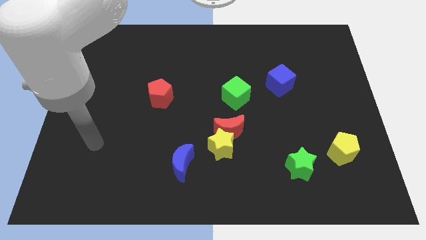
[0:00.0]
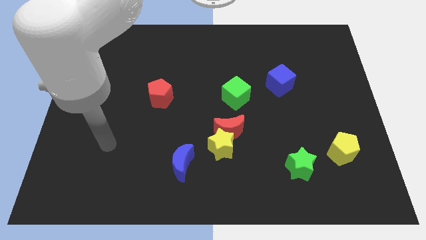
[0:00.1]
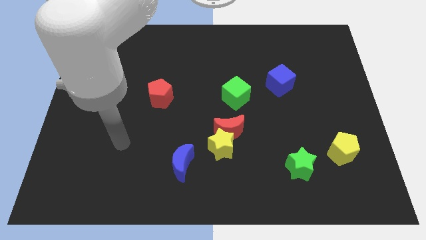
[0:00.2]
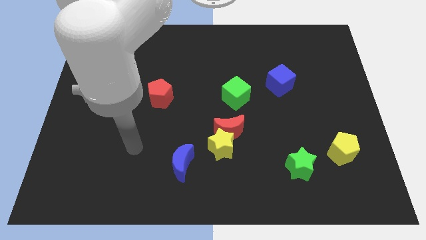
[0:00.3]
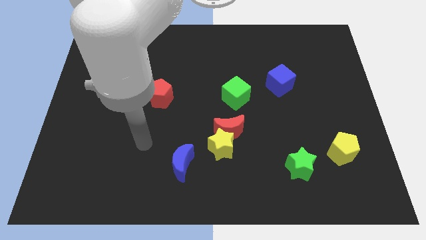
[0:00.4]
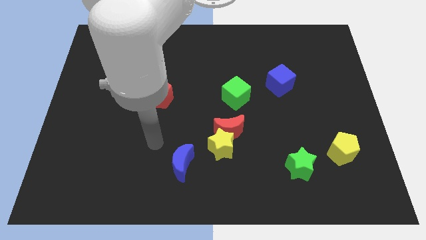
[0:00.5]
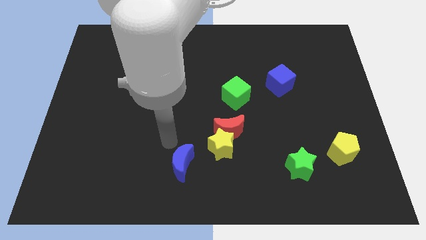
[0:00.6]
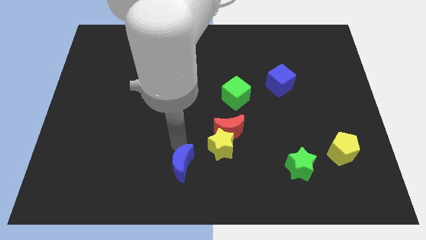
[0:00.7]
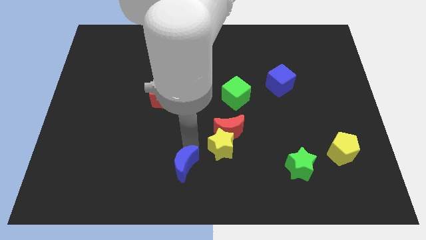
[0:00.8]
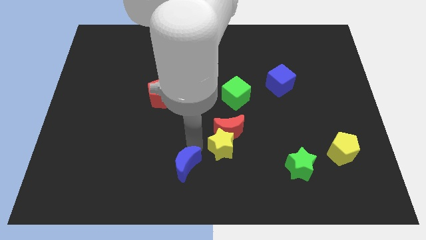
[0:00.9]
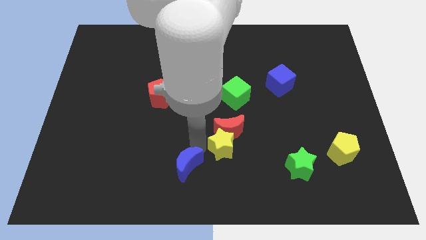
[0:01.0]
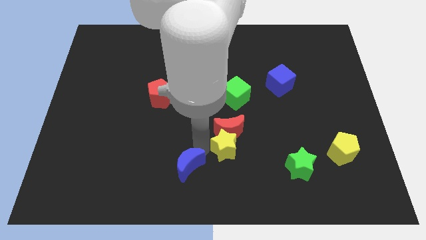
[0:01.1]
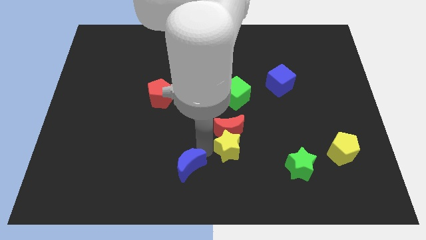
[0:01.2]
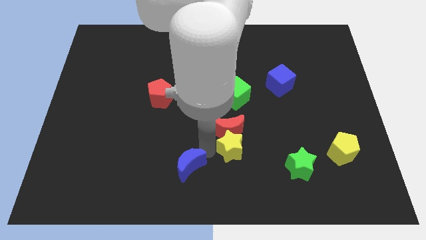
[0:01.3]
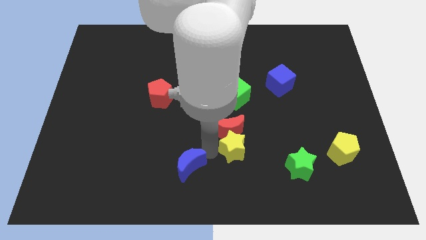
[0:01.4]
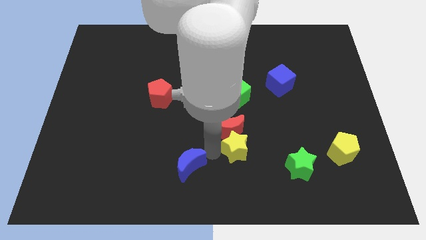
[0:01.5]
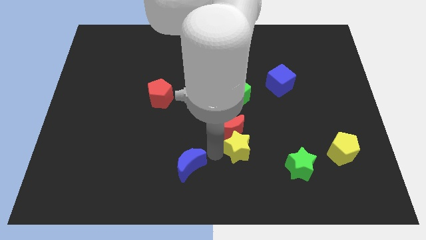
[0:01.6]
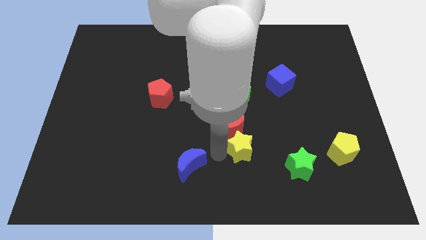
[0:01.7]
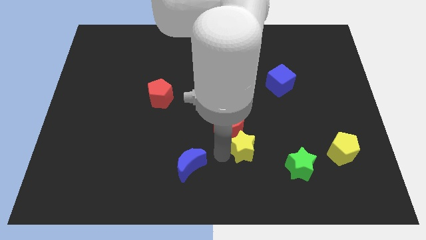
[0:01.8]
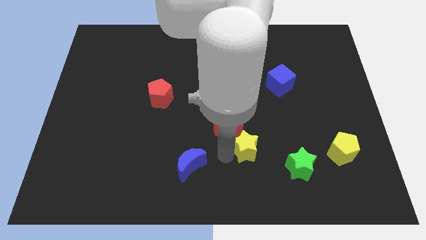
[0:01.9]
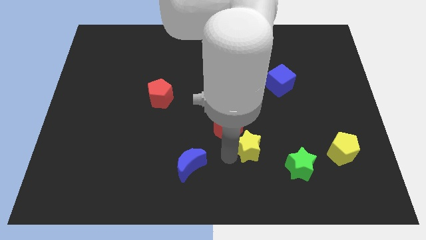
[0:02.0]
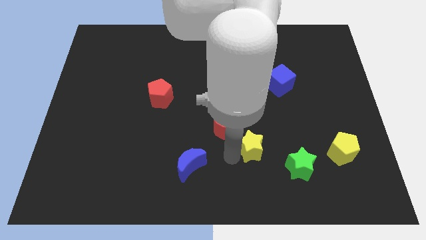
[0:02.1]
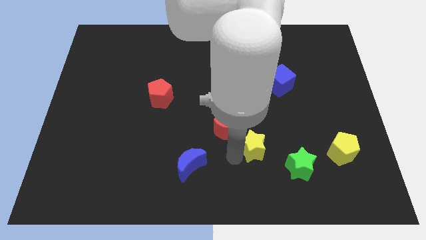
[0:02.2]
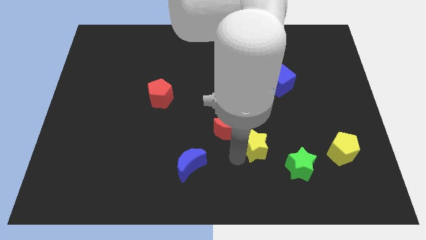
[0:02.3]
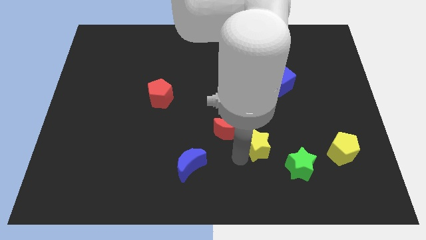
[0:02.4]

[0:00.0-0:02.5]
pull the yellow star apart from the red moon and blue moon

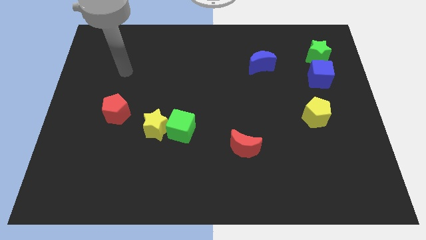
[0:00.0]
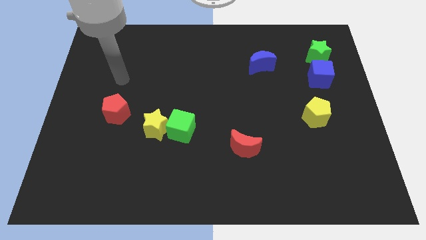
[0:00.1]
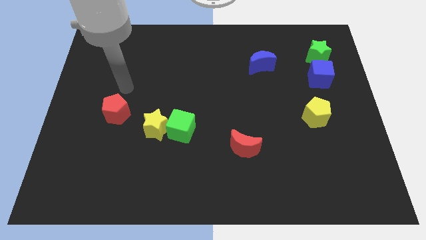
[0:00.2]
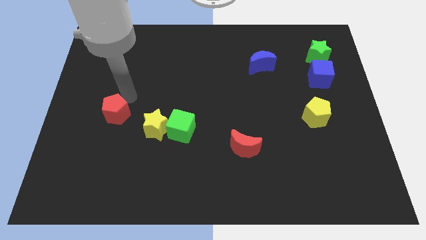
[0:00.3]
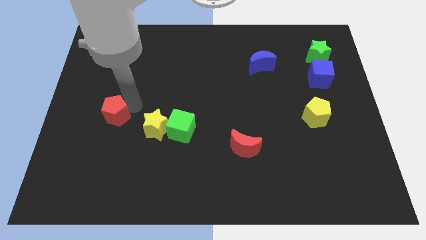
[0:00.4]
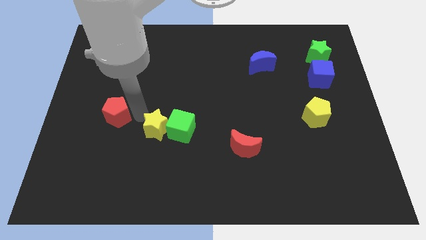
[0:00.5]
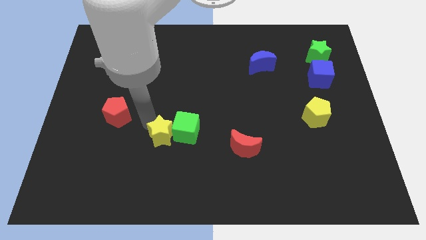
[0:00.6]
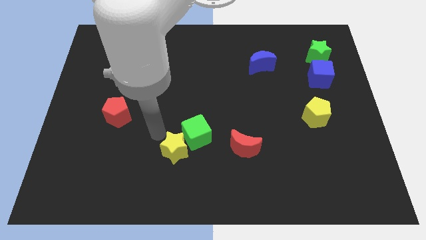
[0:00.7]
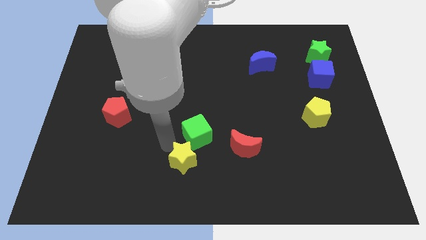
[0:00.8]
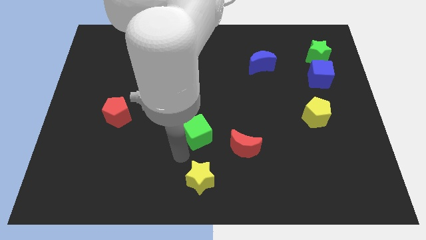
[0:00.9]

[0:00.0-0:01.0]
pull the green cube apart from the yellow star

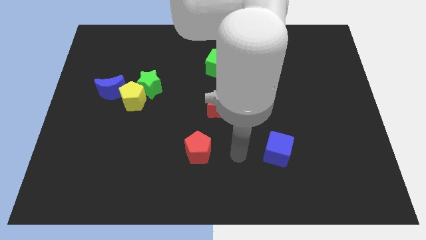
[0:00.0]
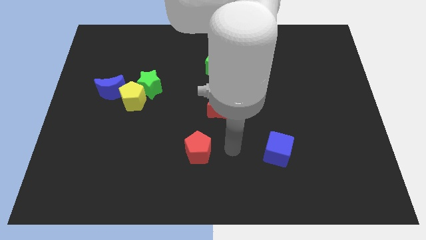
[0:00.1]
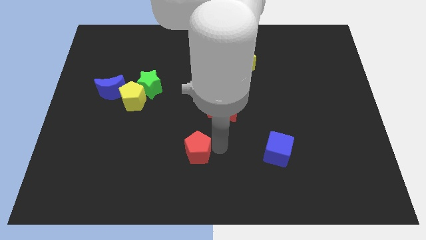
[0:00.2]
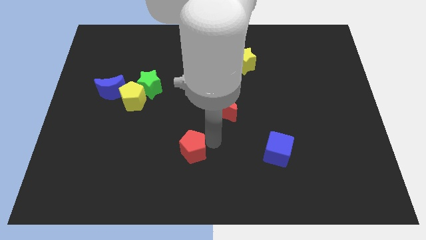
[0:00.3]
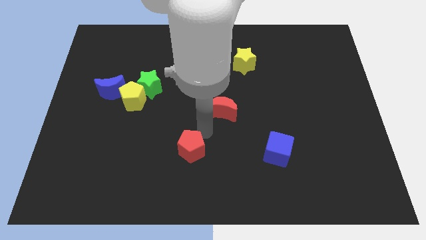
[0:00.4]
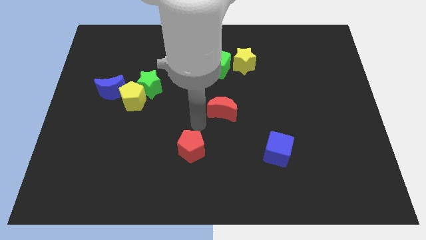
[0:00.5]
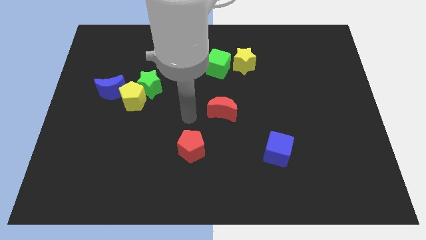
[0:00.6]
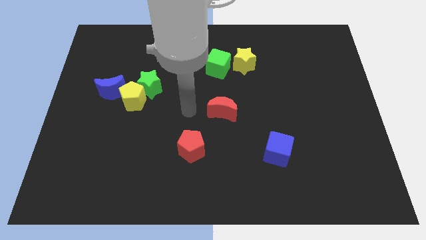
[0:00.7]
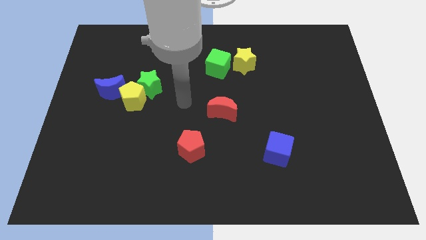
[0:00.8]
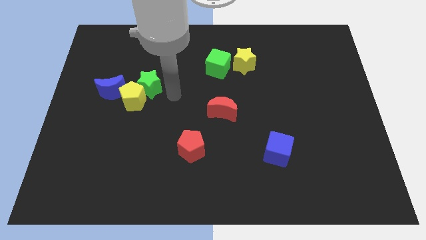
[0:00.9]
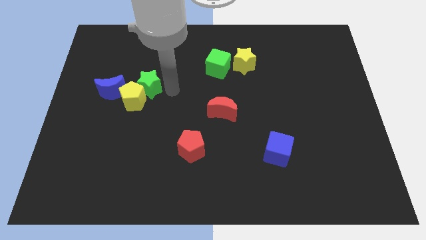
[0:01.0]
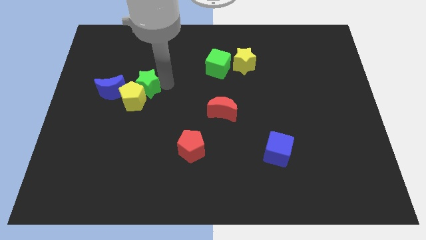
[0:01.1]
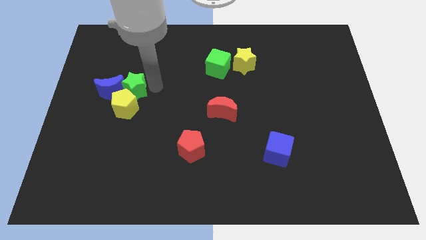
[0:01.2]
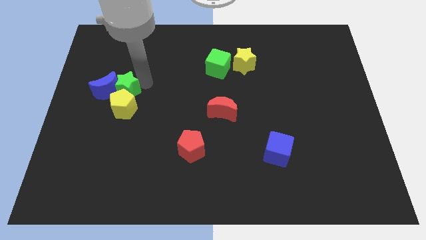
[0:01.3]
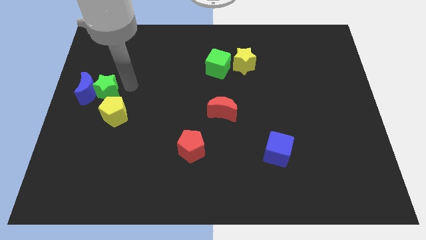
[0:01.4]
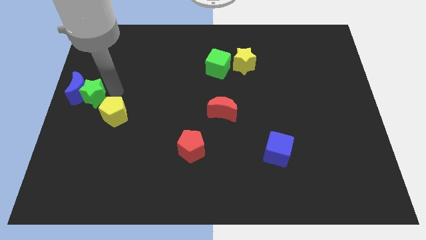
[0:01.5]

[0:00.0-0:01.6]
pull the yellow pentagon apart from the green star and blue moon

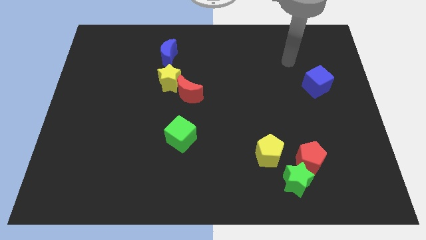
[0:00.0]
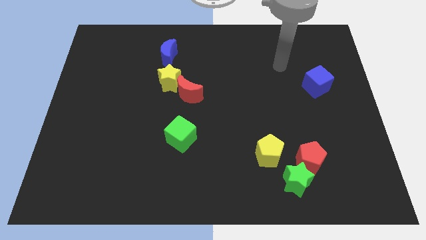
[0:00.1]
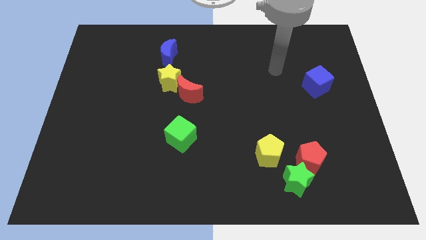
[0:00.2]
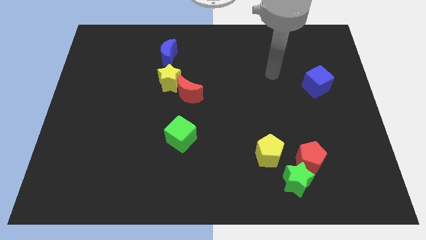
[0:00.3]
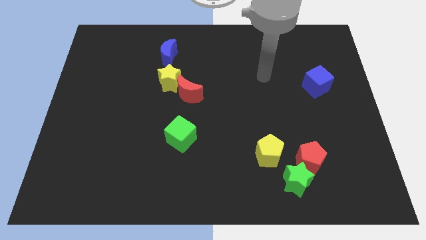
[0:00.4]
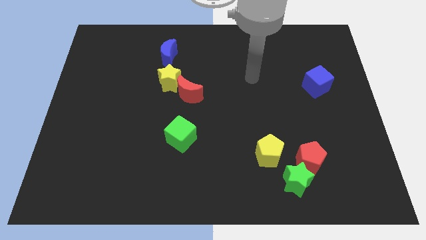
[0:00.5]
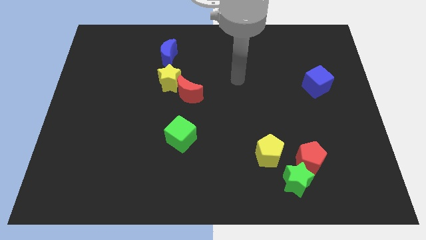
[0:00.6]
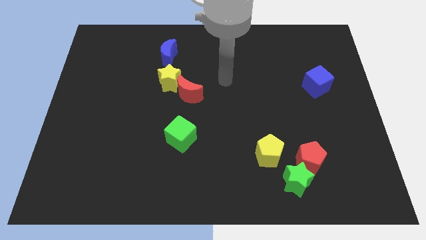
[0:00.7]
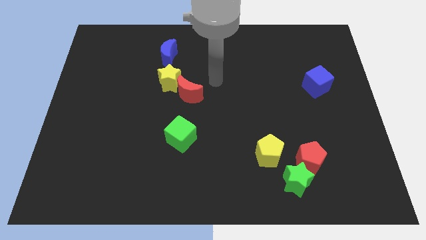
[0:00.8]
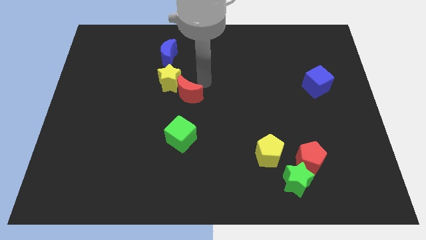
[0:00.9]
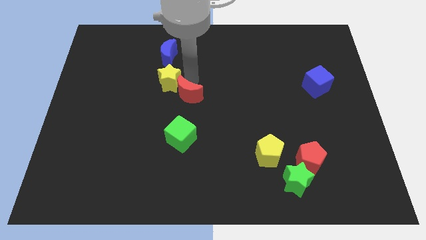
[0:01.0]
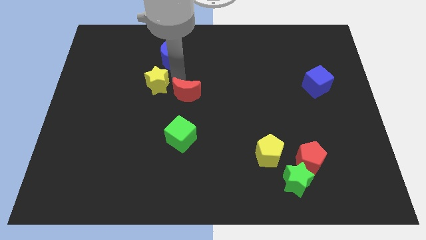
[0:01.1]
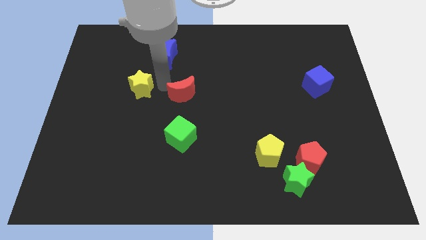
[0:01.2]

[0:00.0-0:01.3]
pull the red moon apart from the yellow star

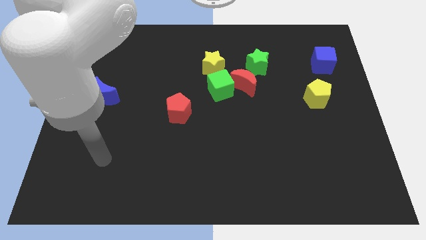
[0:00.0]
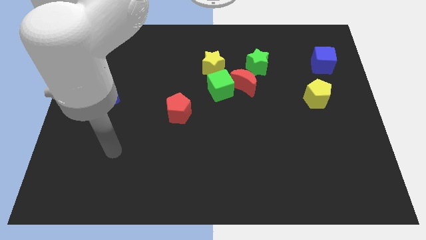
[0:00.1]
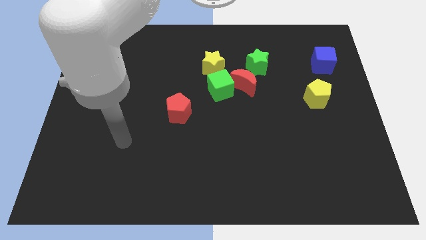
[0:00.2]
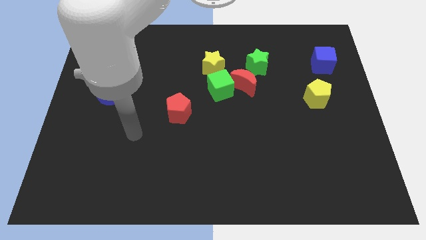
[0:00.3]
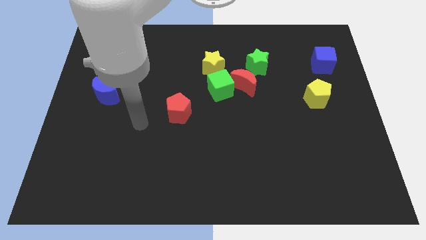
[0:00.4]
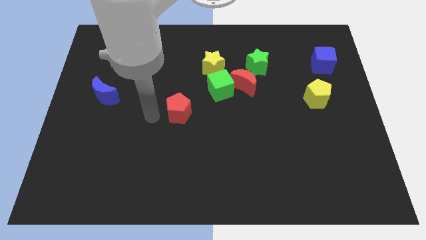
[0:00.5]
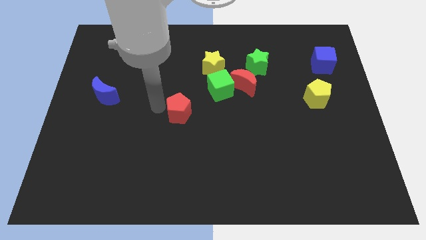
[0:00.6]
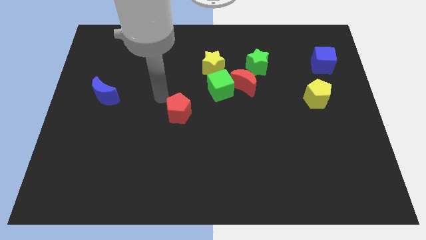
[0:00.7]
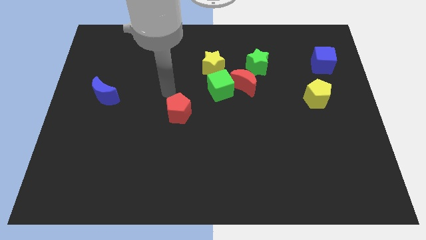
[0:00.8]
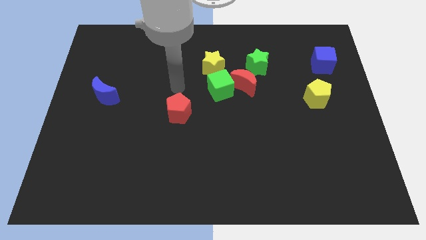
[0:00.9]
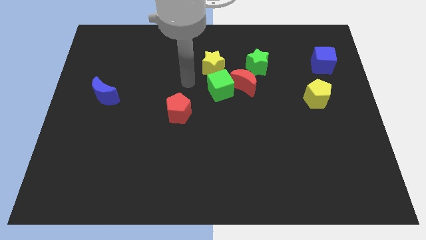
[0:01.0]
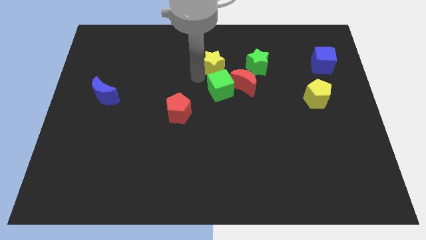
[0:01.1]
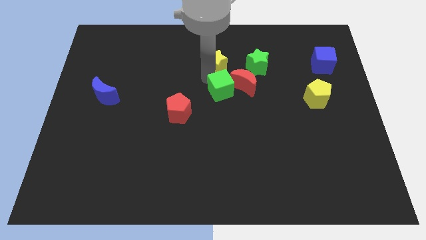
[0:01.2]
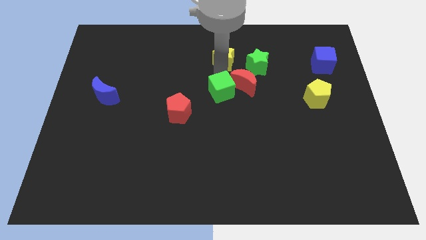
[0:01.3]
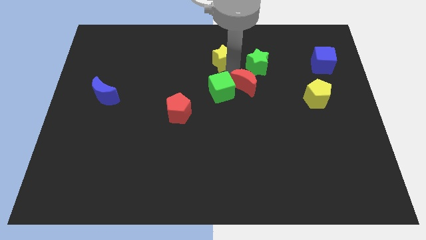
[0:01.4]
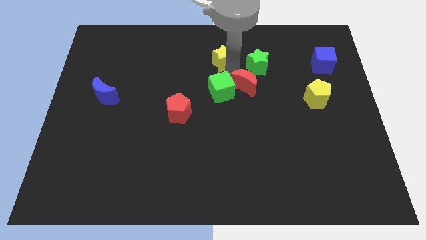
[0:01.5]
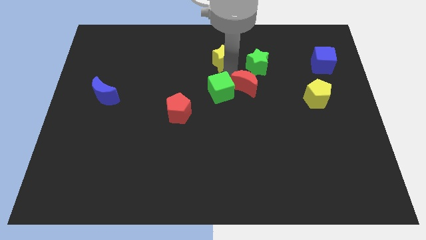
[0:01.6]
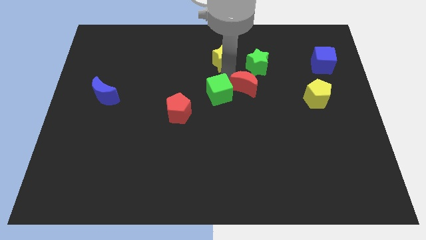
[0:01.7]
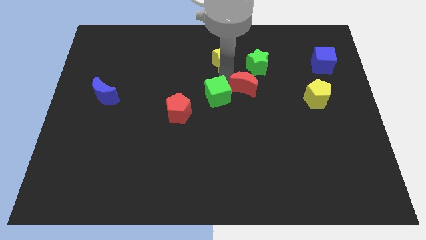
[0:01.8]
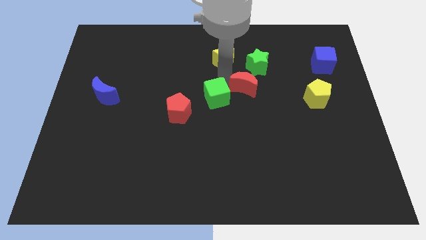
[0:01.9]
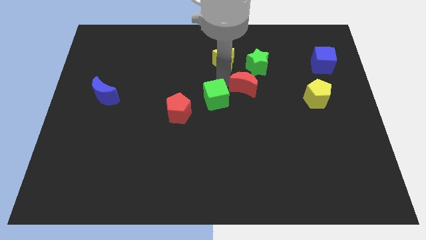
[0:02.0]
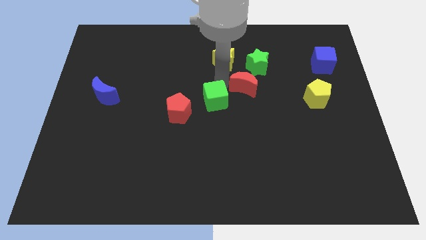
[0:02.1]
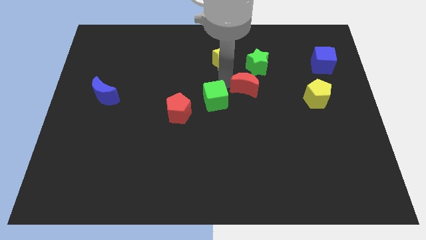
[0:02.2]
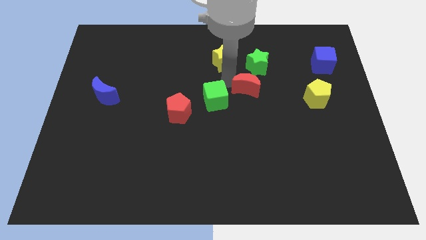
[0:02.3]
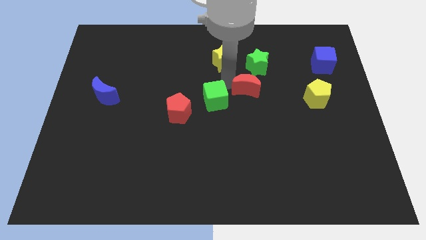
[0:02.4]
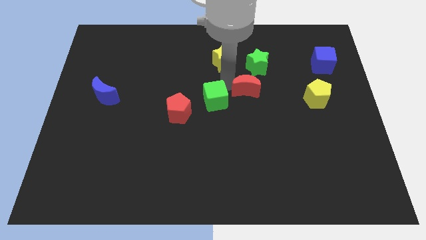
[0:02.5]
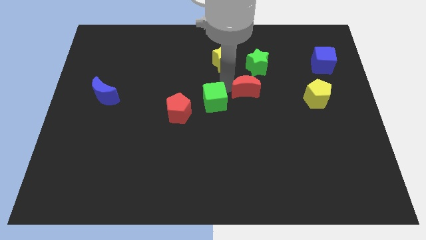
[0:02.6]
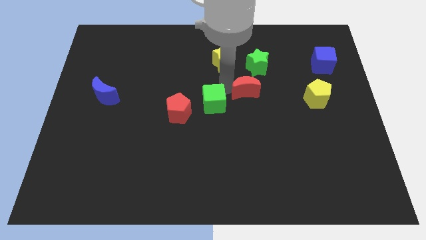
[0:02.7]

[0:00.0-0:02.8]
separate the green cube from the red moon and yellow star
